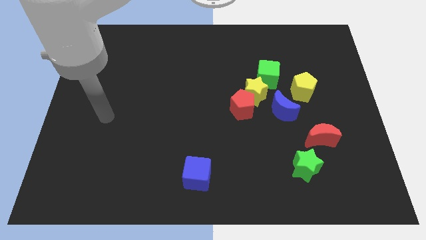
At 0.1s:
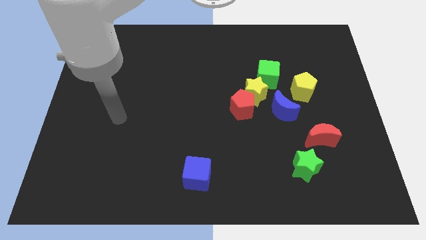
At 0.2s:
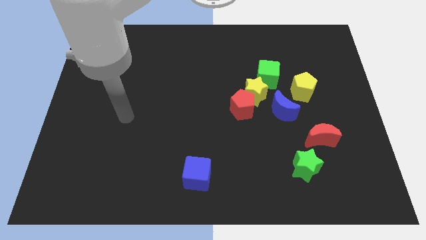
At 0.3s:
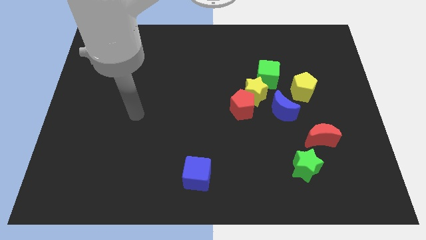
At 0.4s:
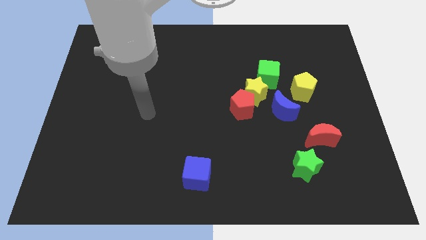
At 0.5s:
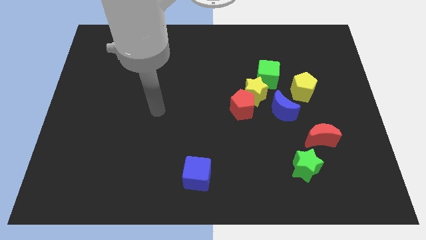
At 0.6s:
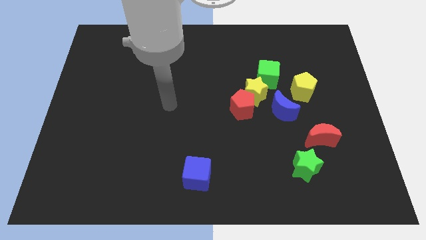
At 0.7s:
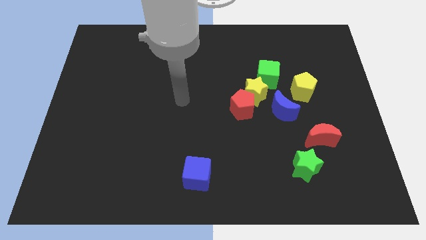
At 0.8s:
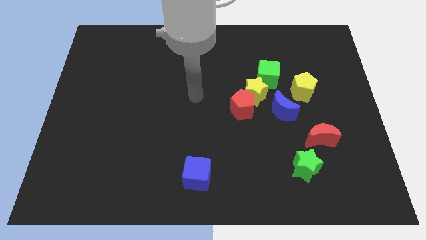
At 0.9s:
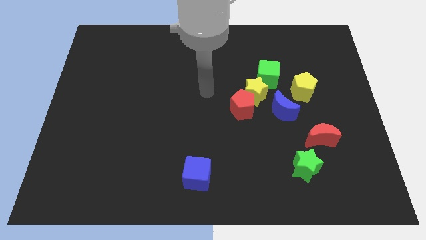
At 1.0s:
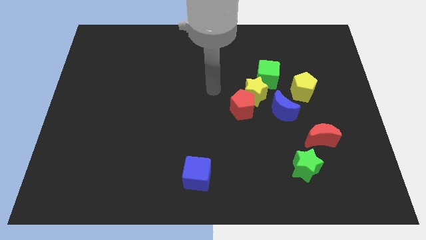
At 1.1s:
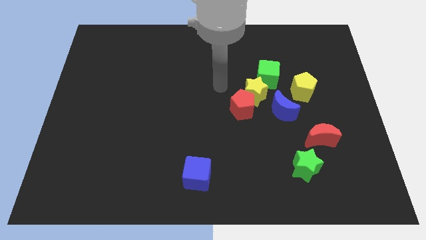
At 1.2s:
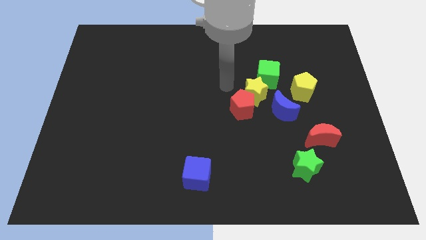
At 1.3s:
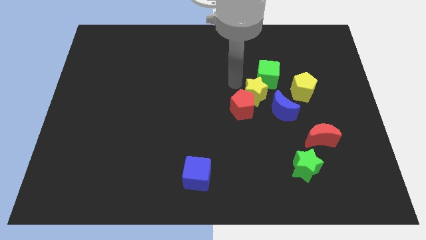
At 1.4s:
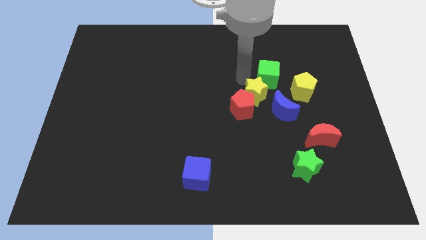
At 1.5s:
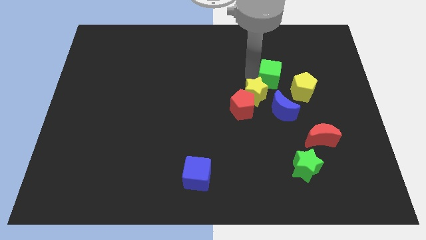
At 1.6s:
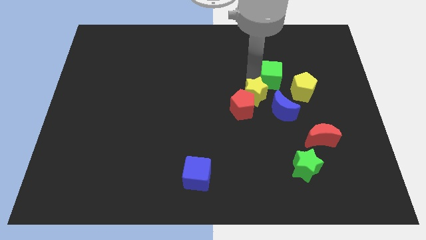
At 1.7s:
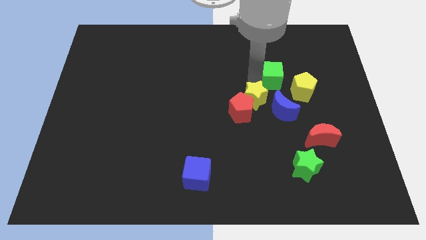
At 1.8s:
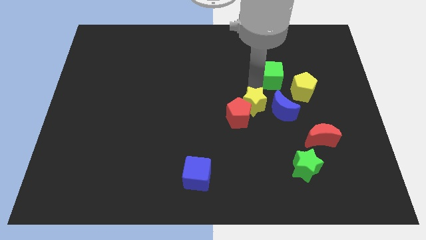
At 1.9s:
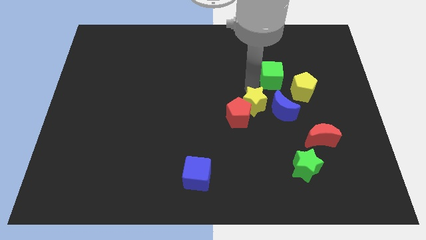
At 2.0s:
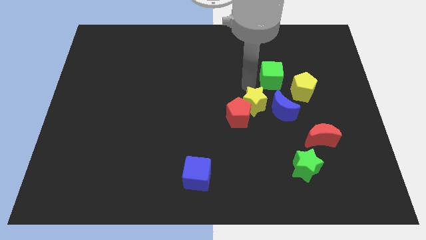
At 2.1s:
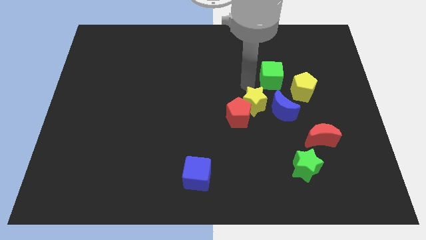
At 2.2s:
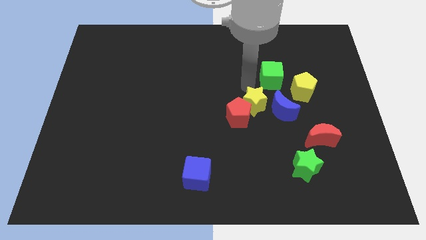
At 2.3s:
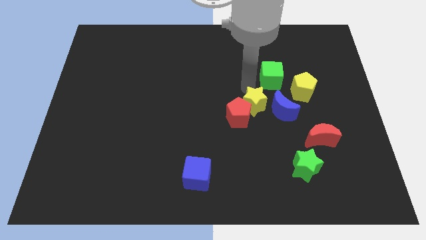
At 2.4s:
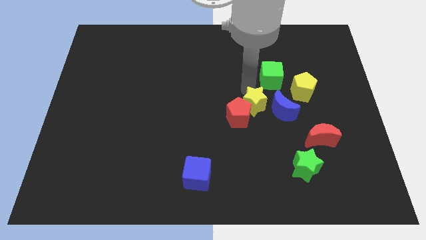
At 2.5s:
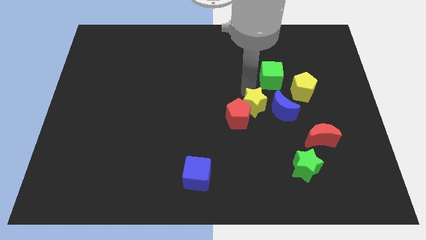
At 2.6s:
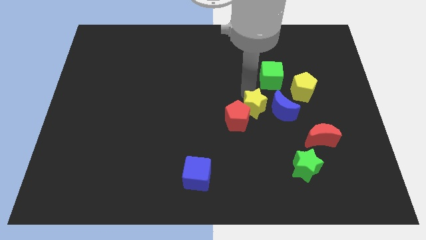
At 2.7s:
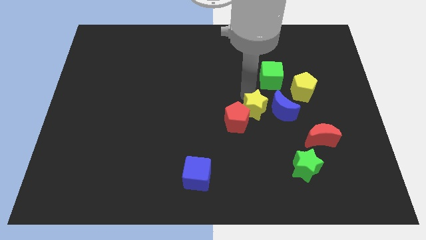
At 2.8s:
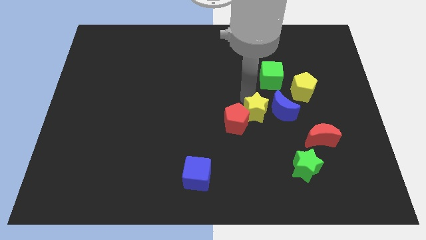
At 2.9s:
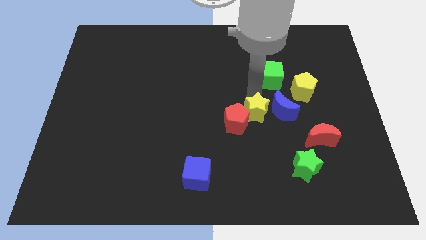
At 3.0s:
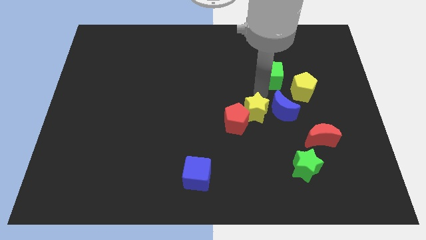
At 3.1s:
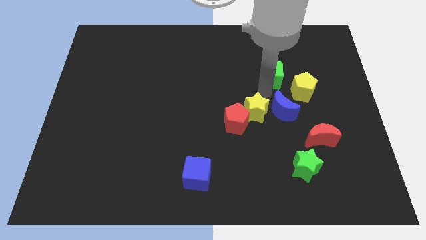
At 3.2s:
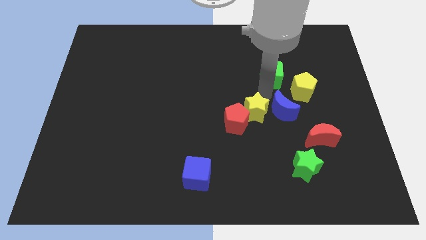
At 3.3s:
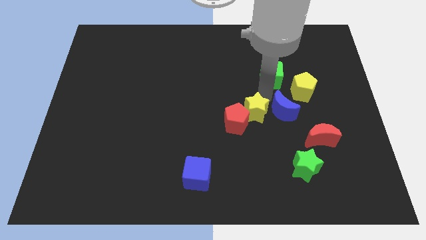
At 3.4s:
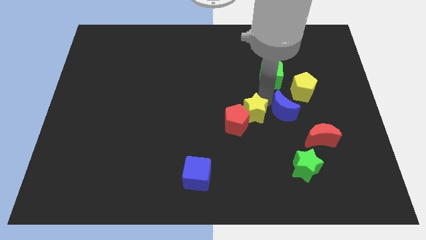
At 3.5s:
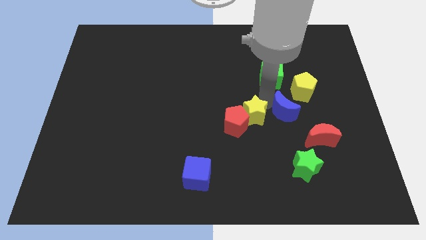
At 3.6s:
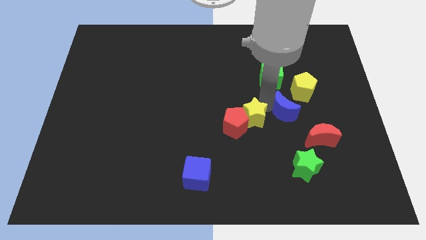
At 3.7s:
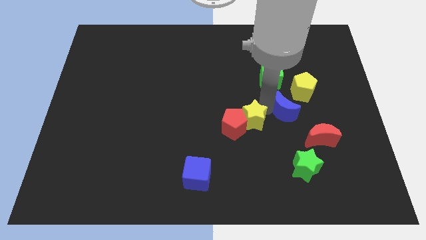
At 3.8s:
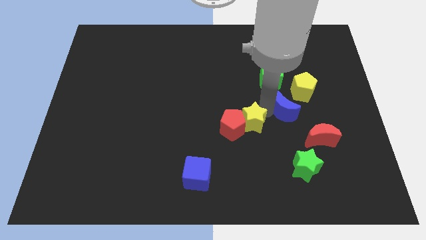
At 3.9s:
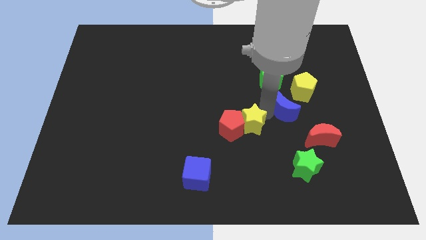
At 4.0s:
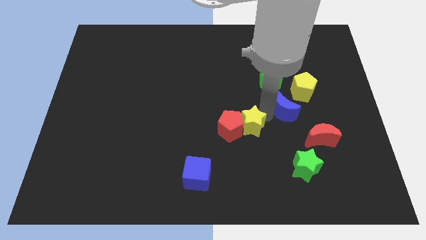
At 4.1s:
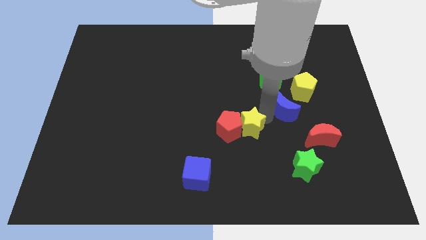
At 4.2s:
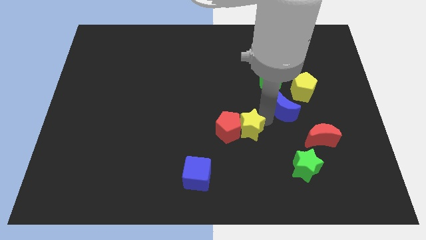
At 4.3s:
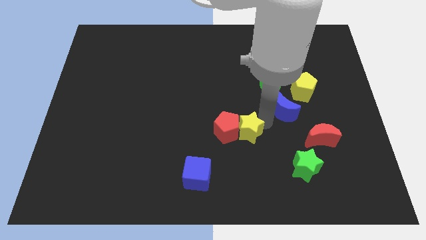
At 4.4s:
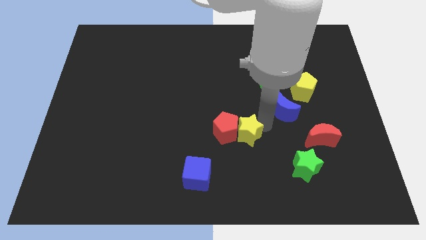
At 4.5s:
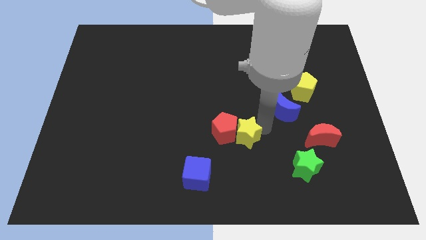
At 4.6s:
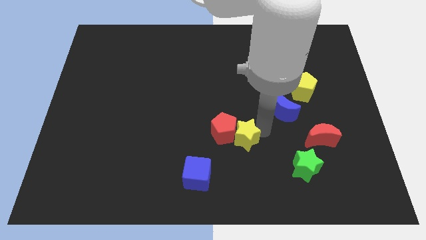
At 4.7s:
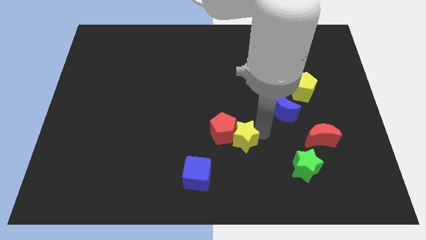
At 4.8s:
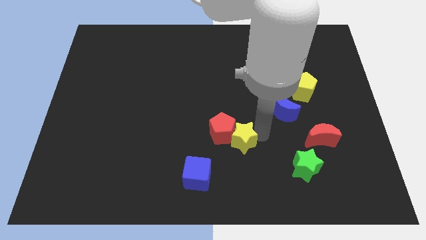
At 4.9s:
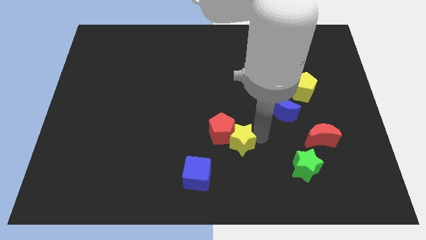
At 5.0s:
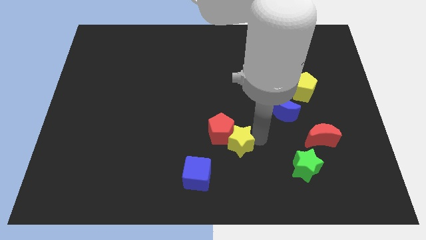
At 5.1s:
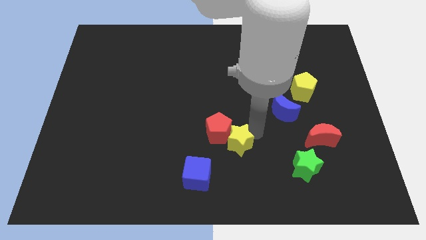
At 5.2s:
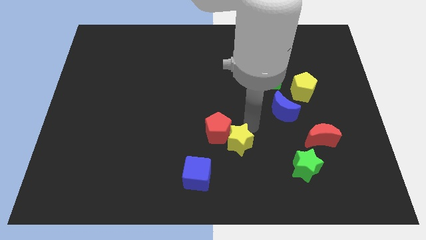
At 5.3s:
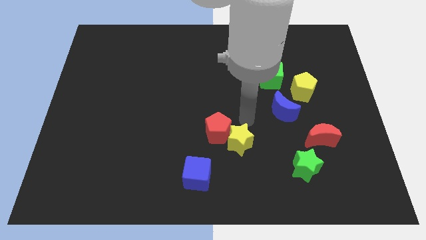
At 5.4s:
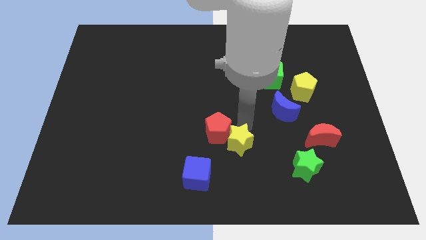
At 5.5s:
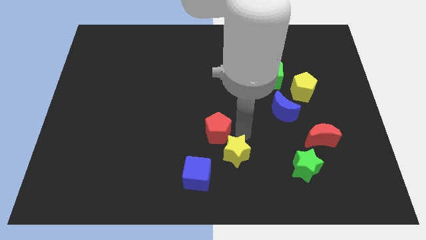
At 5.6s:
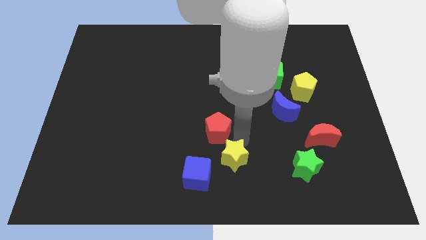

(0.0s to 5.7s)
slide the yellow star to the bottom

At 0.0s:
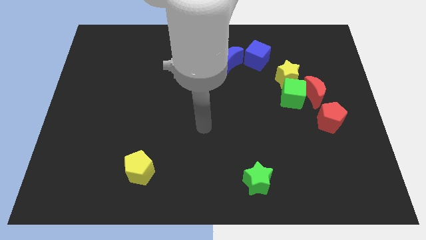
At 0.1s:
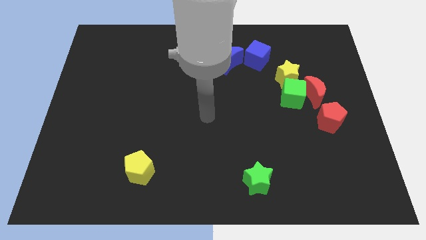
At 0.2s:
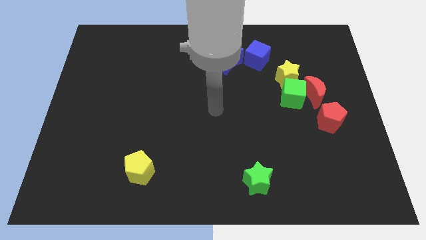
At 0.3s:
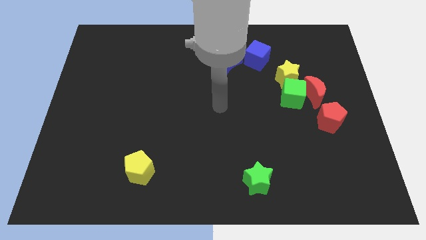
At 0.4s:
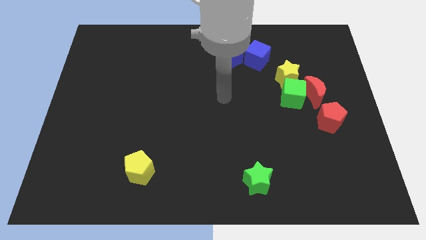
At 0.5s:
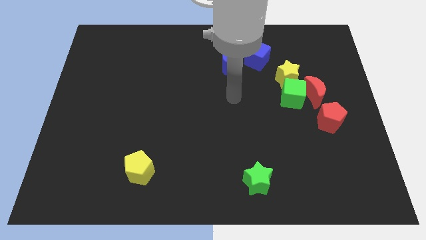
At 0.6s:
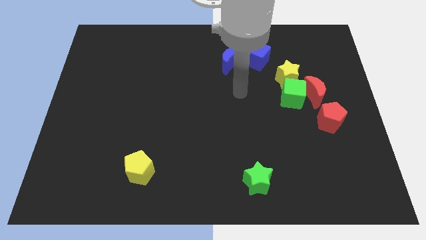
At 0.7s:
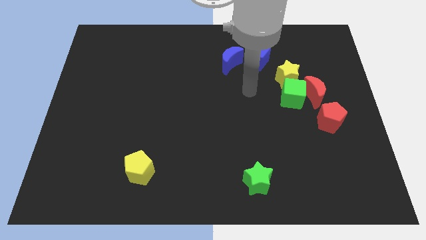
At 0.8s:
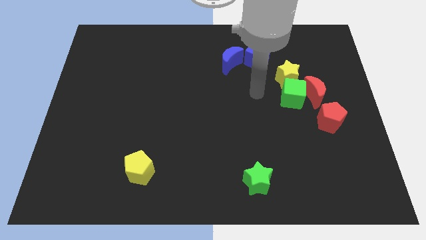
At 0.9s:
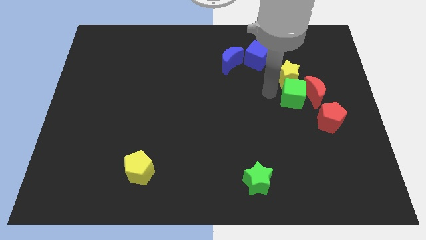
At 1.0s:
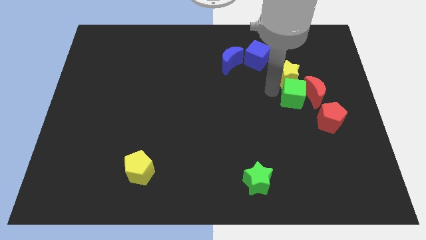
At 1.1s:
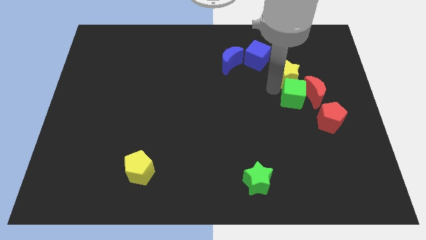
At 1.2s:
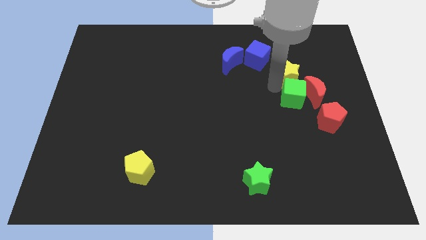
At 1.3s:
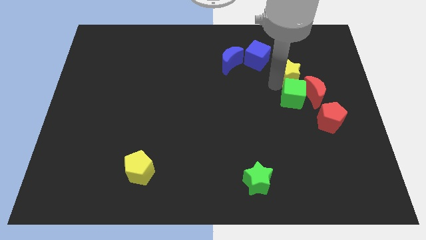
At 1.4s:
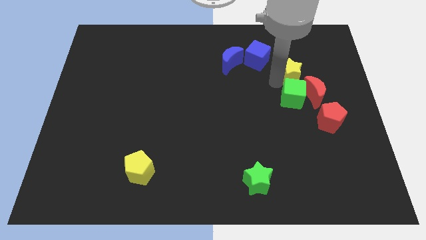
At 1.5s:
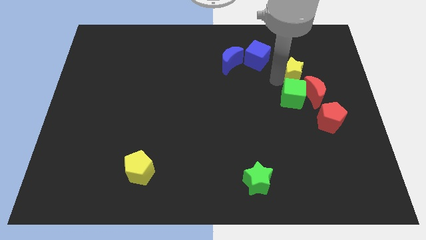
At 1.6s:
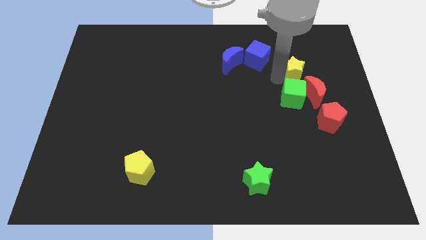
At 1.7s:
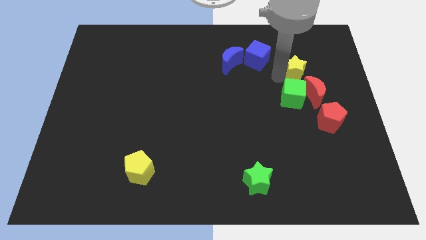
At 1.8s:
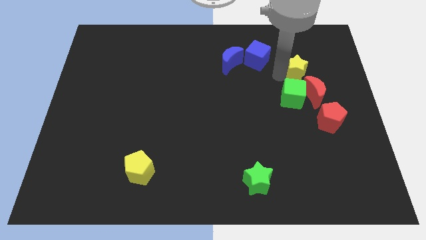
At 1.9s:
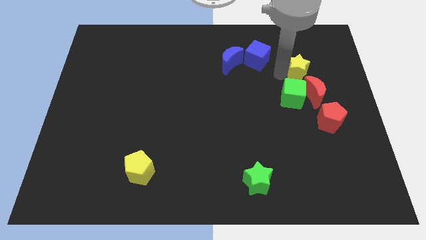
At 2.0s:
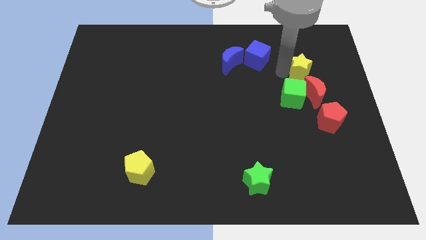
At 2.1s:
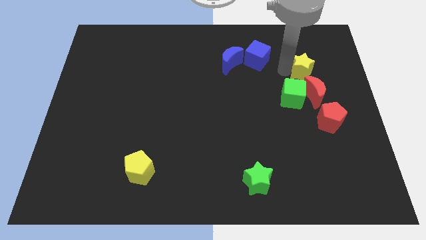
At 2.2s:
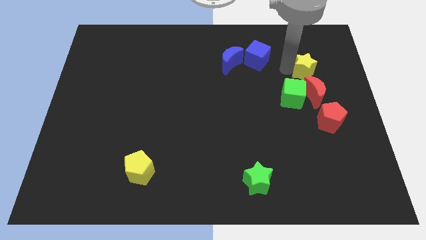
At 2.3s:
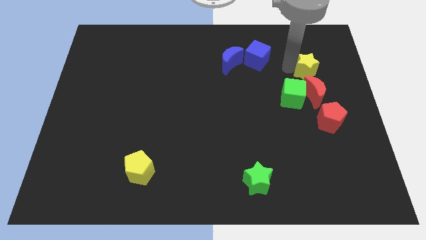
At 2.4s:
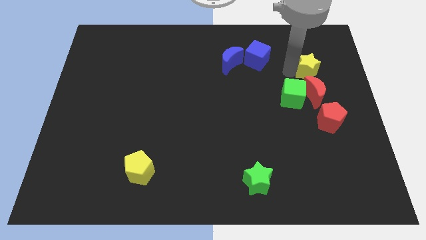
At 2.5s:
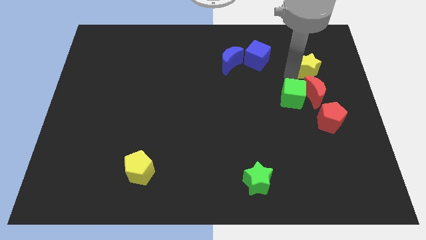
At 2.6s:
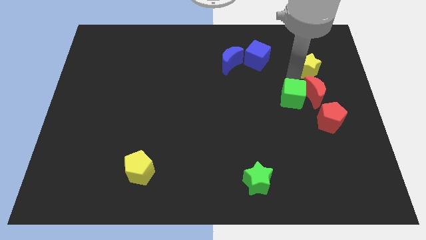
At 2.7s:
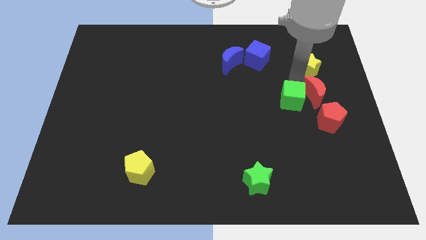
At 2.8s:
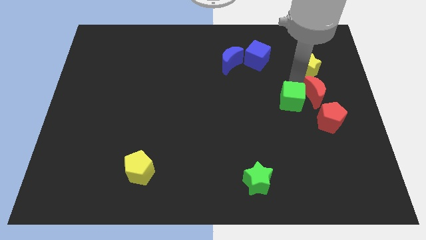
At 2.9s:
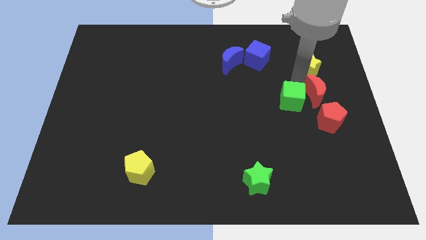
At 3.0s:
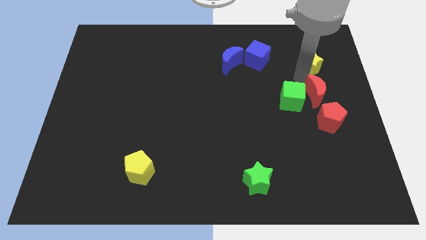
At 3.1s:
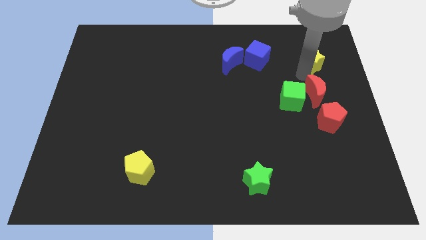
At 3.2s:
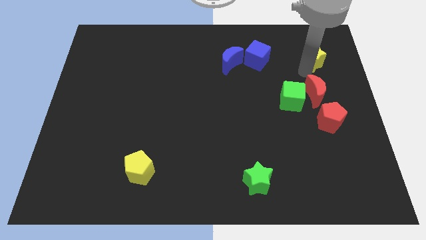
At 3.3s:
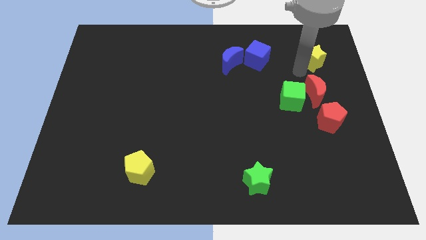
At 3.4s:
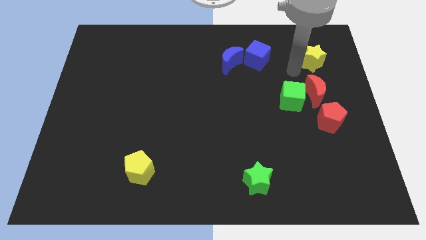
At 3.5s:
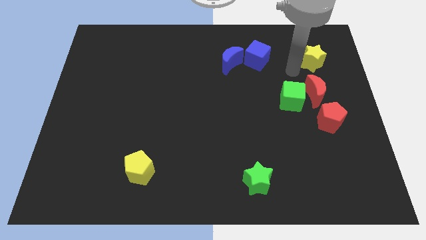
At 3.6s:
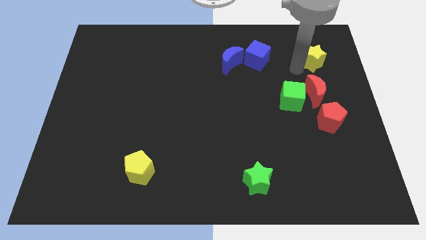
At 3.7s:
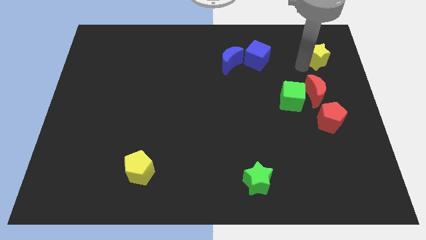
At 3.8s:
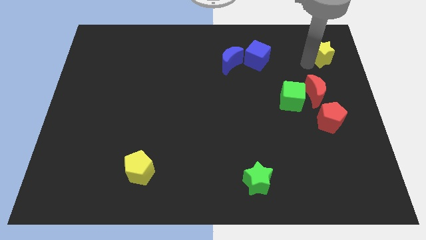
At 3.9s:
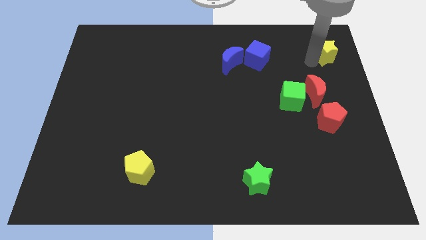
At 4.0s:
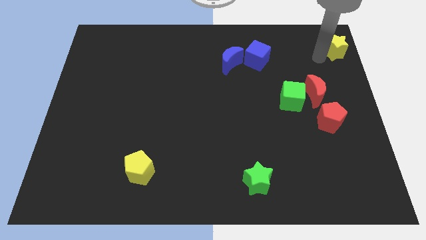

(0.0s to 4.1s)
push the yellow star to the top right corner
